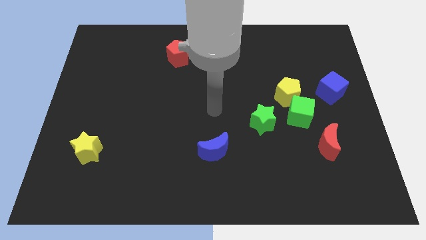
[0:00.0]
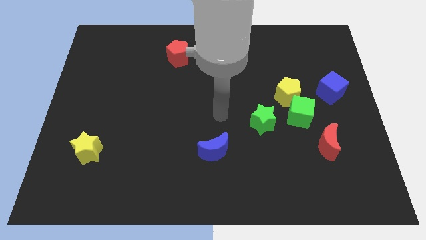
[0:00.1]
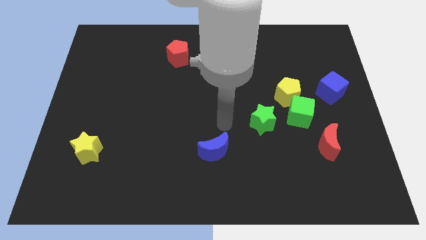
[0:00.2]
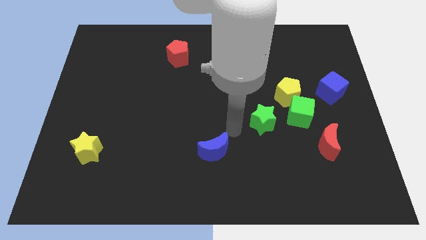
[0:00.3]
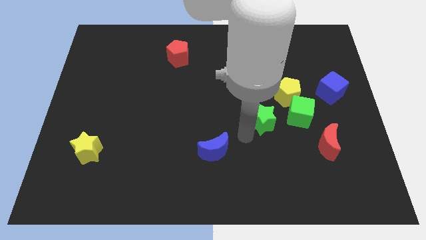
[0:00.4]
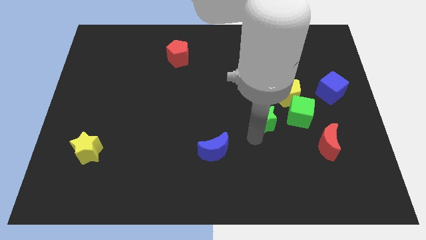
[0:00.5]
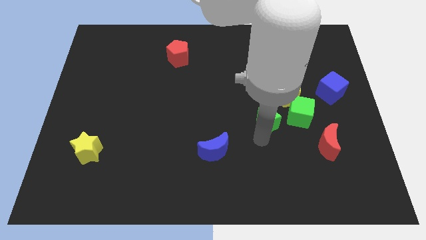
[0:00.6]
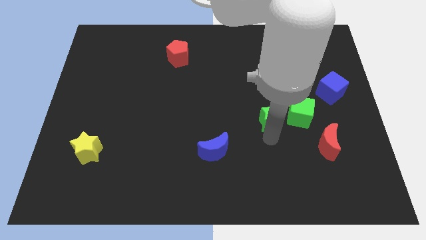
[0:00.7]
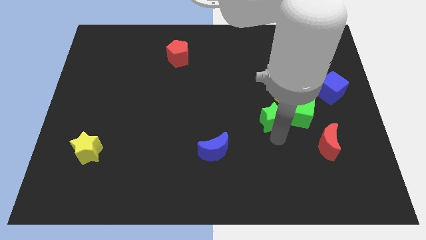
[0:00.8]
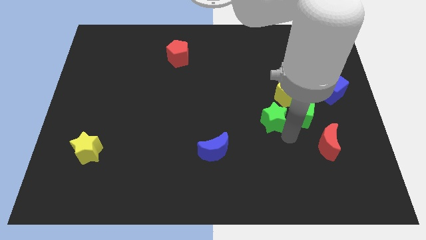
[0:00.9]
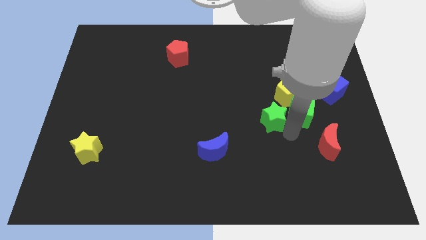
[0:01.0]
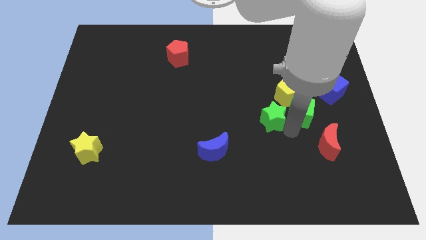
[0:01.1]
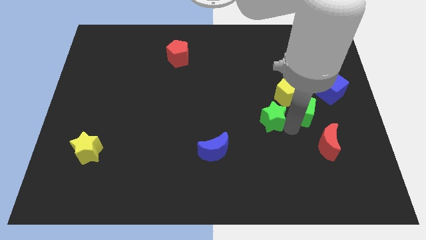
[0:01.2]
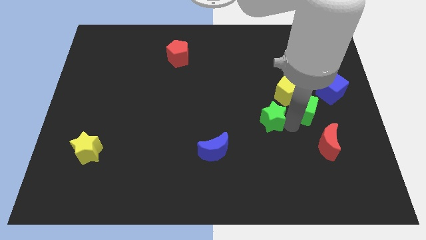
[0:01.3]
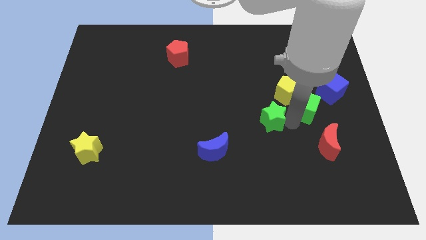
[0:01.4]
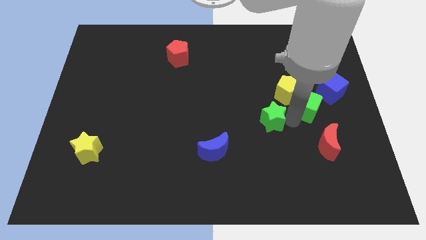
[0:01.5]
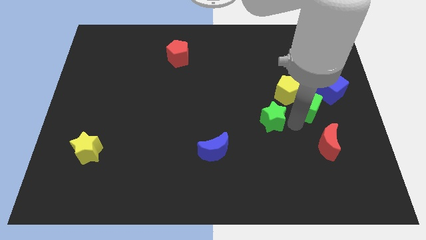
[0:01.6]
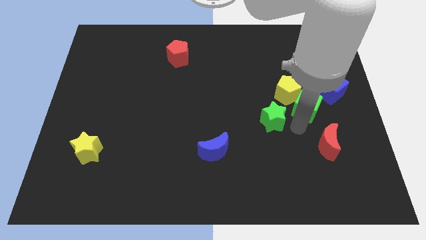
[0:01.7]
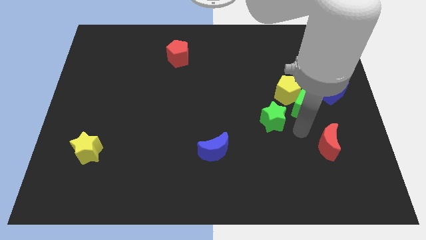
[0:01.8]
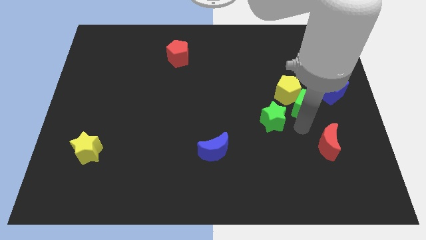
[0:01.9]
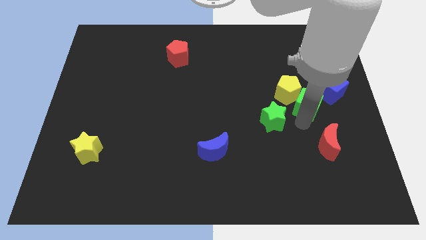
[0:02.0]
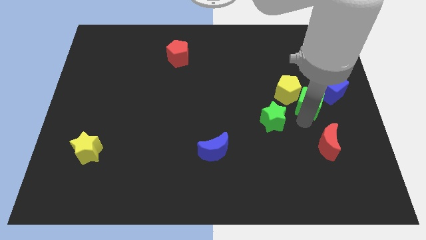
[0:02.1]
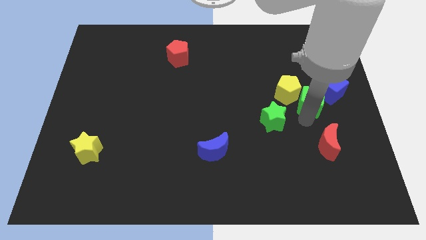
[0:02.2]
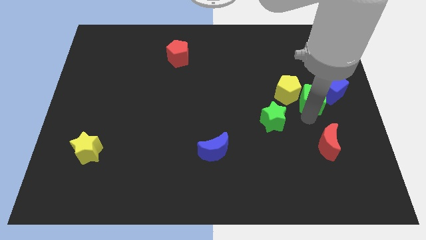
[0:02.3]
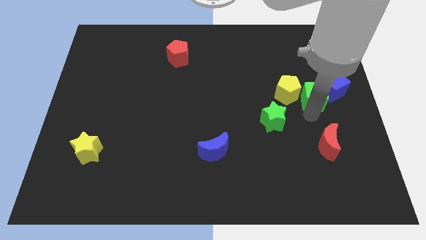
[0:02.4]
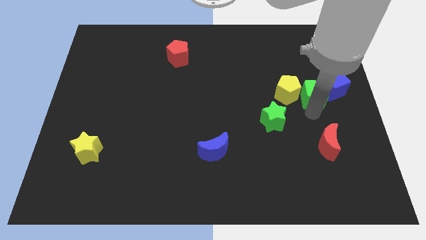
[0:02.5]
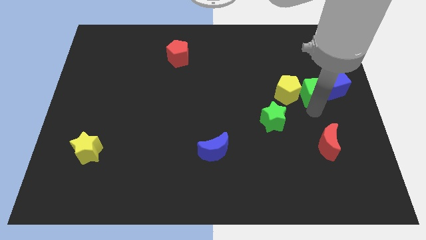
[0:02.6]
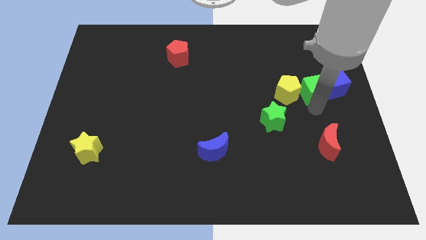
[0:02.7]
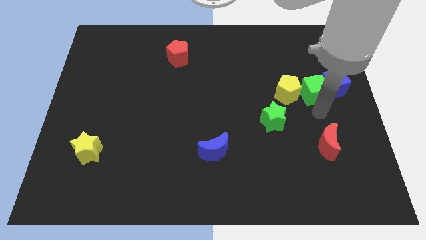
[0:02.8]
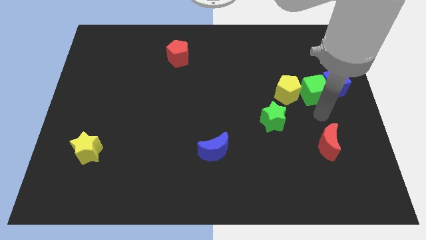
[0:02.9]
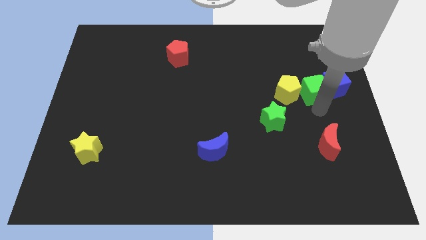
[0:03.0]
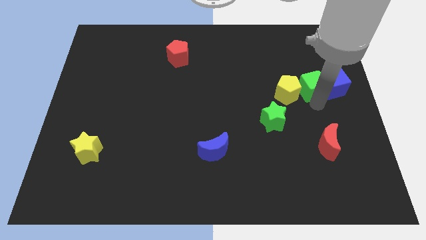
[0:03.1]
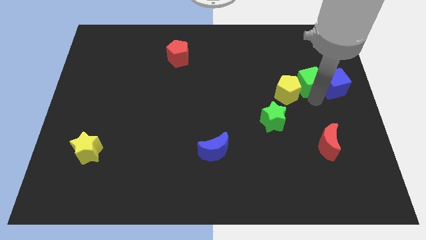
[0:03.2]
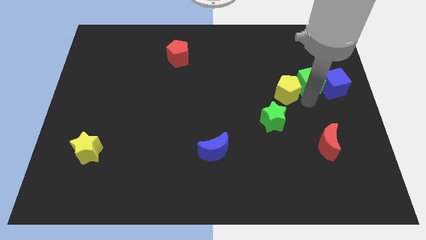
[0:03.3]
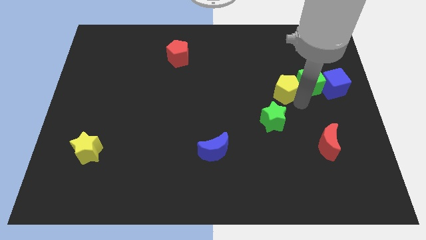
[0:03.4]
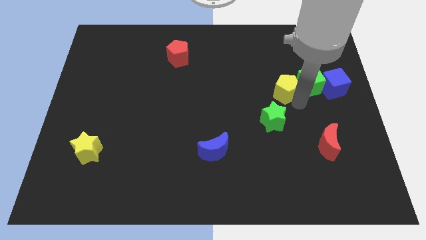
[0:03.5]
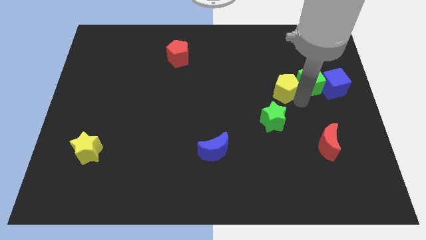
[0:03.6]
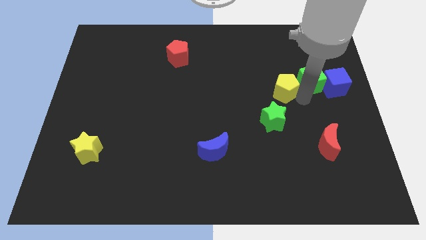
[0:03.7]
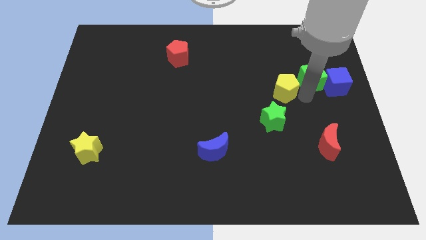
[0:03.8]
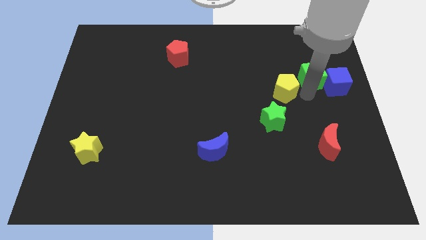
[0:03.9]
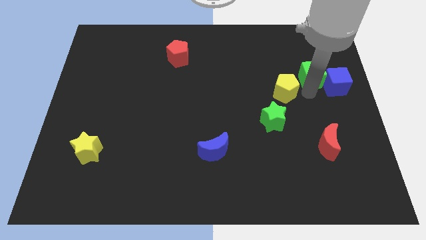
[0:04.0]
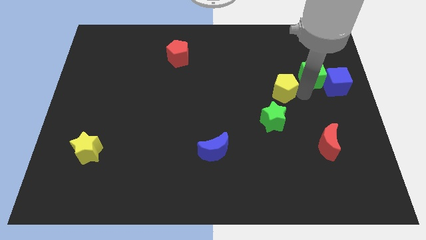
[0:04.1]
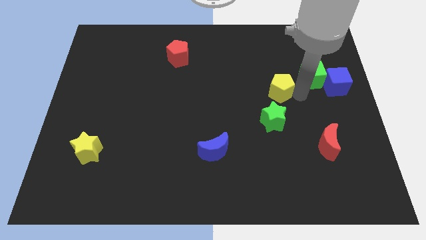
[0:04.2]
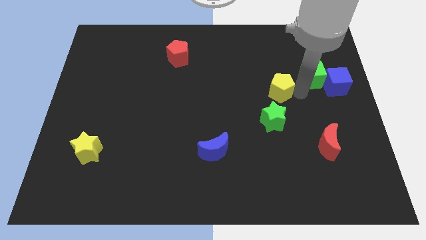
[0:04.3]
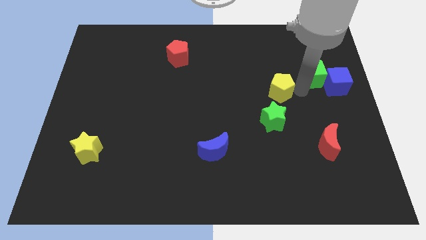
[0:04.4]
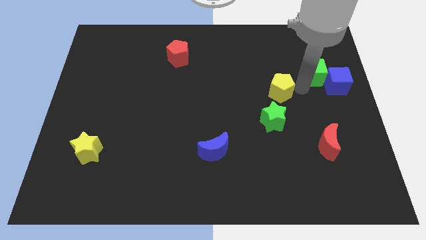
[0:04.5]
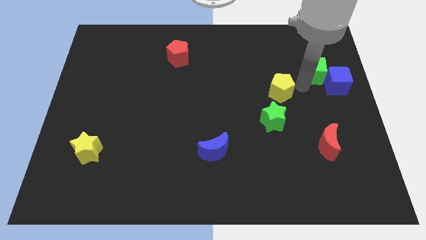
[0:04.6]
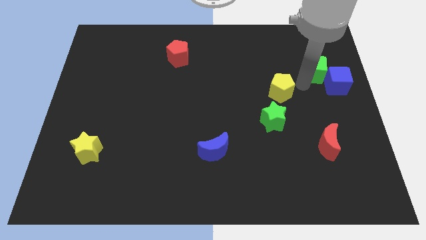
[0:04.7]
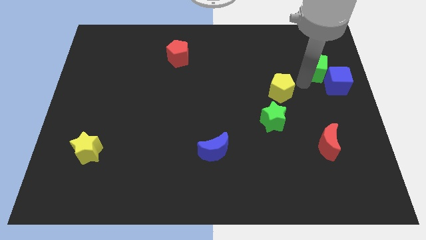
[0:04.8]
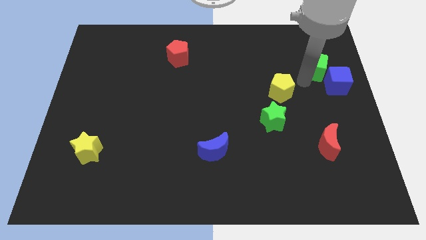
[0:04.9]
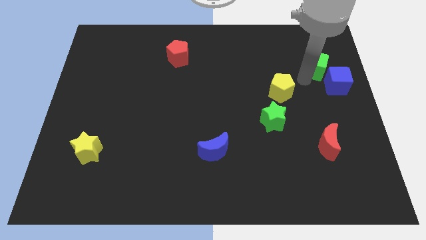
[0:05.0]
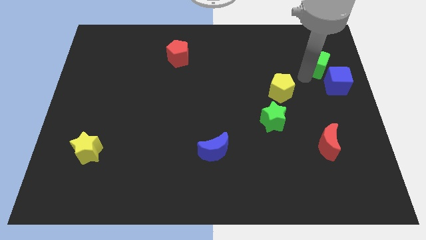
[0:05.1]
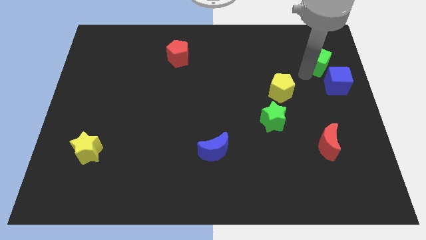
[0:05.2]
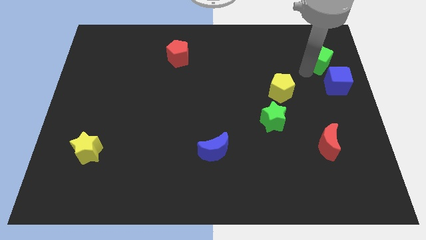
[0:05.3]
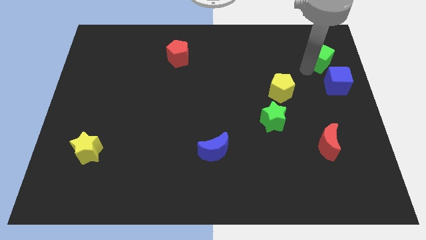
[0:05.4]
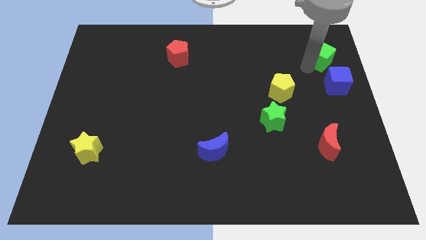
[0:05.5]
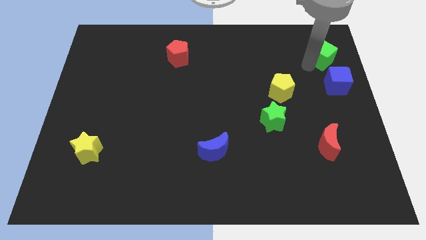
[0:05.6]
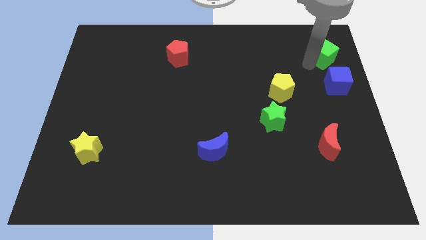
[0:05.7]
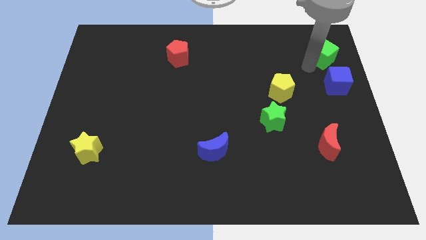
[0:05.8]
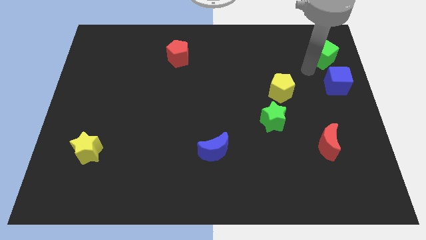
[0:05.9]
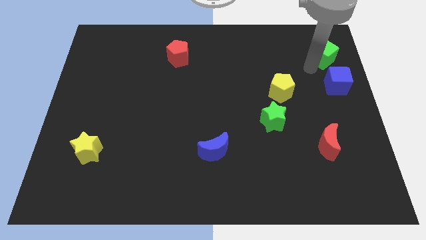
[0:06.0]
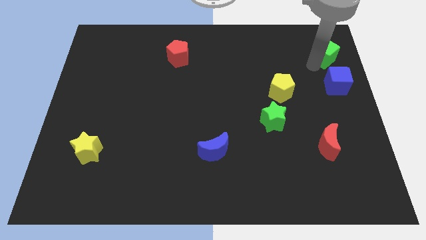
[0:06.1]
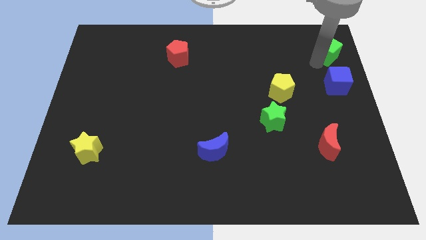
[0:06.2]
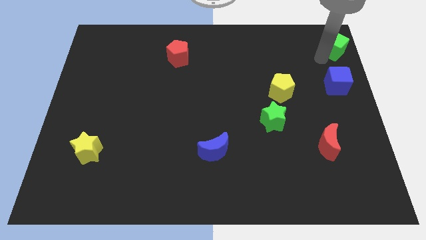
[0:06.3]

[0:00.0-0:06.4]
slide the green cube to the top right corner
